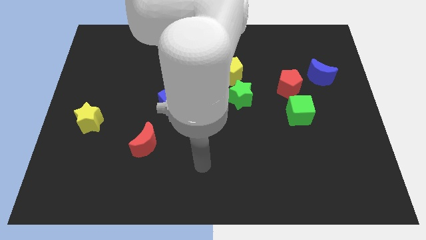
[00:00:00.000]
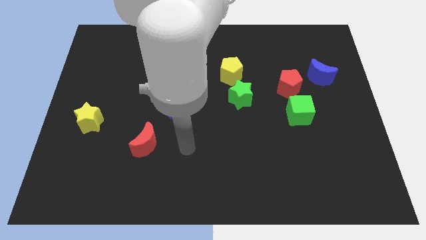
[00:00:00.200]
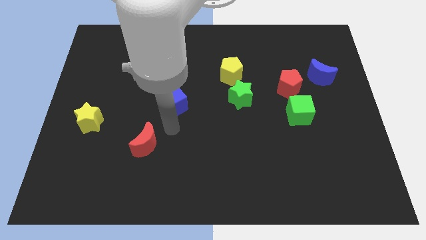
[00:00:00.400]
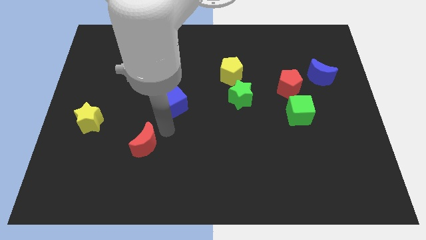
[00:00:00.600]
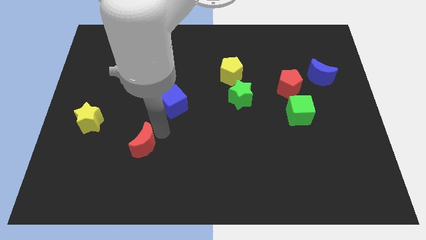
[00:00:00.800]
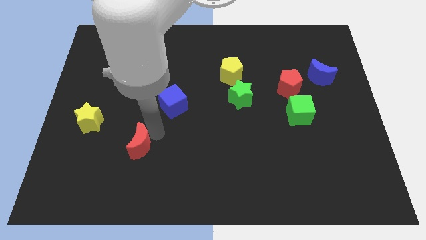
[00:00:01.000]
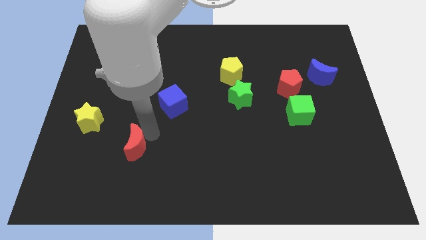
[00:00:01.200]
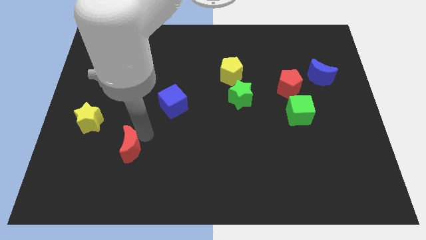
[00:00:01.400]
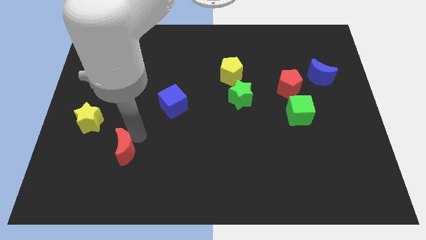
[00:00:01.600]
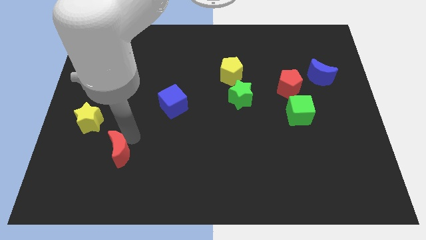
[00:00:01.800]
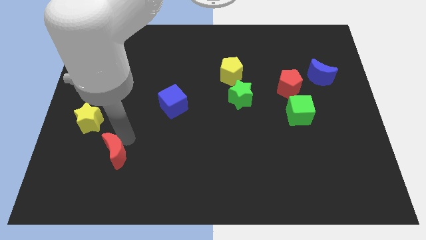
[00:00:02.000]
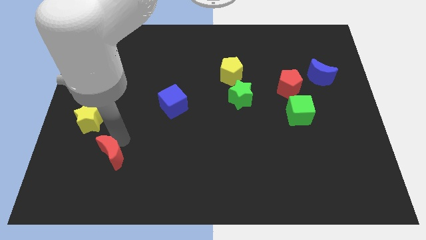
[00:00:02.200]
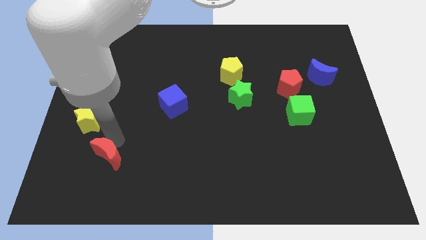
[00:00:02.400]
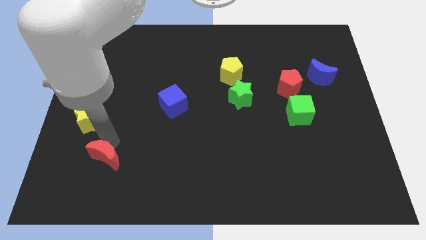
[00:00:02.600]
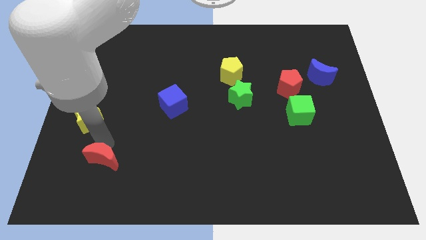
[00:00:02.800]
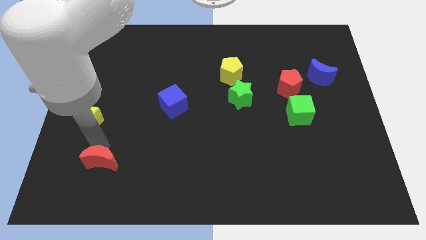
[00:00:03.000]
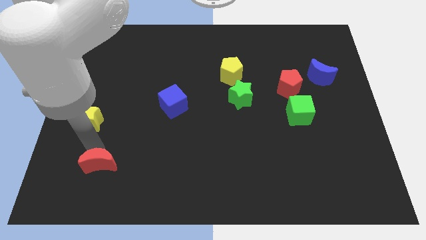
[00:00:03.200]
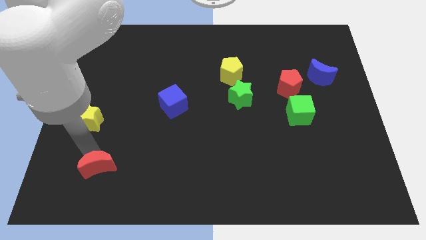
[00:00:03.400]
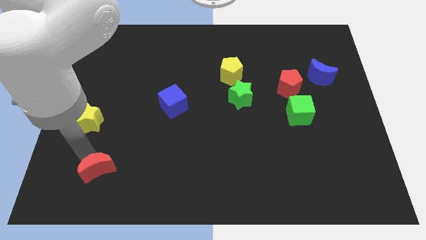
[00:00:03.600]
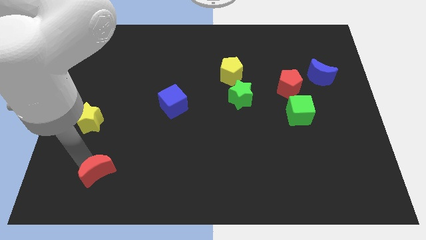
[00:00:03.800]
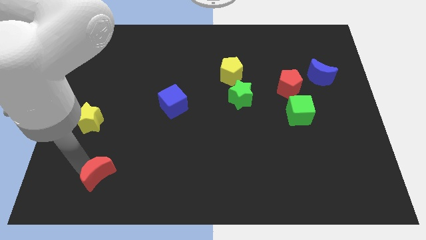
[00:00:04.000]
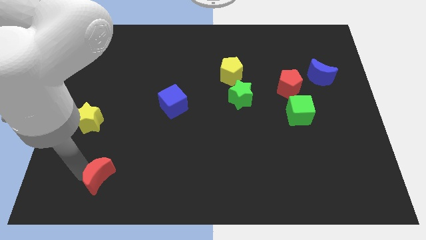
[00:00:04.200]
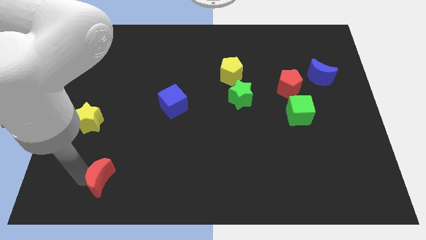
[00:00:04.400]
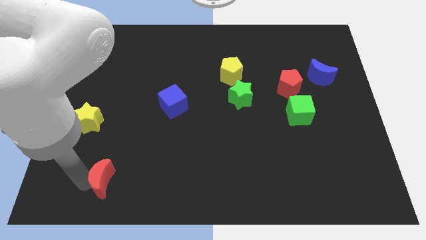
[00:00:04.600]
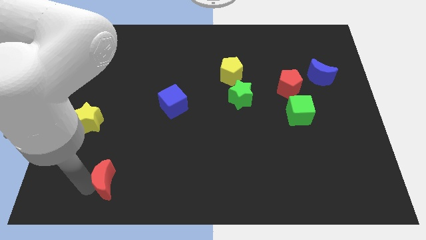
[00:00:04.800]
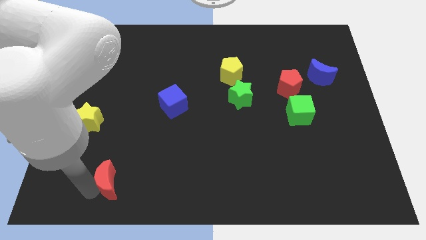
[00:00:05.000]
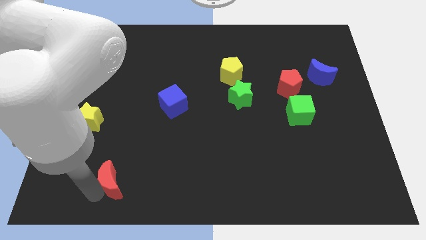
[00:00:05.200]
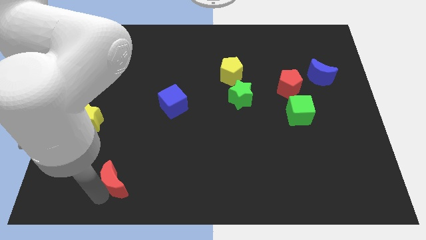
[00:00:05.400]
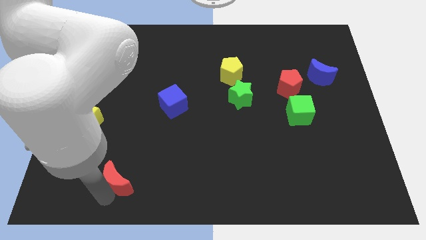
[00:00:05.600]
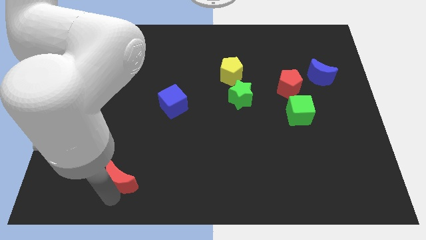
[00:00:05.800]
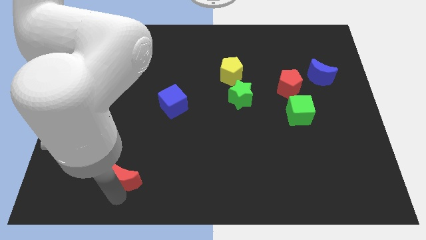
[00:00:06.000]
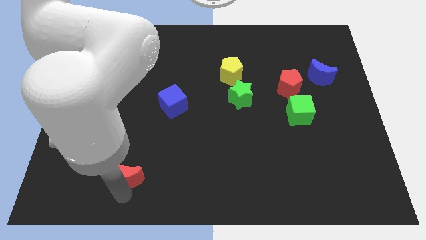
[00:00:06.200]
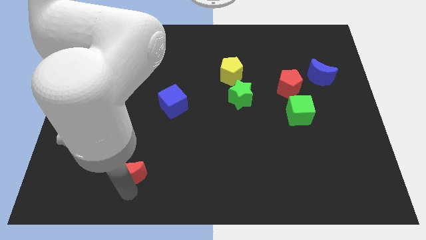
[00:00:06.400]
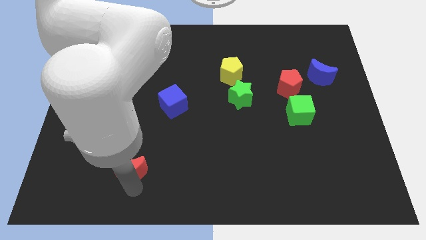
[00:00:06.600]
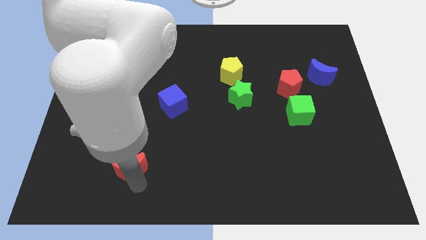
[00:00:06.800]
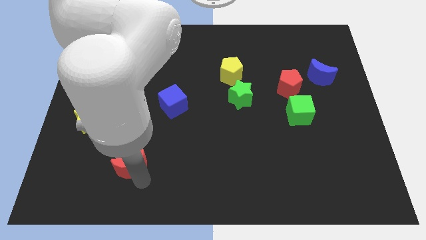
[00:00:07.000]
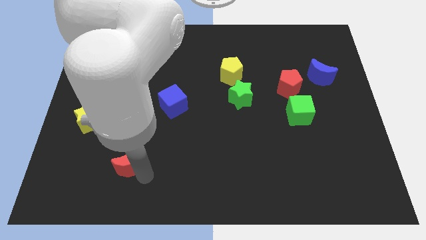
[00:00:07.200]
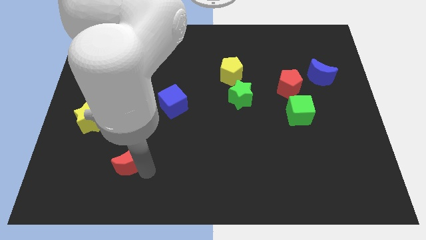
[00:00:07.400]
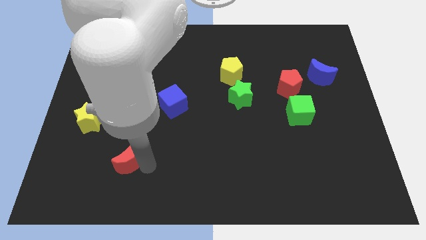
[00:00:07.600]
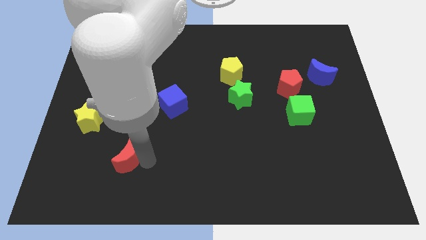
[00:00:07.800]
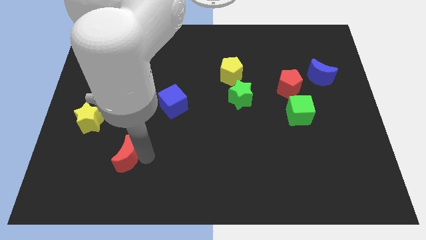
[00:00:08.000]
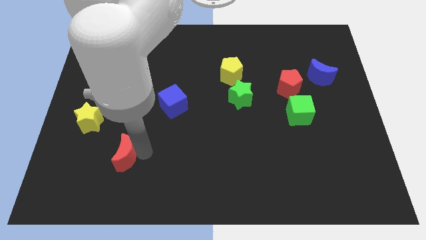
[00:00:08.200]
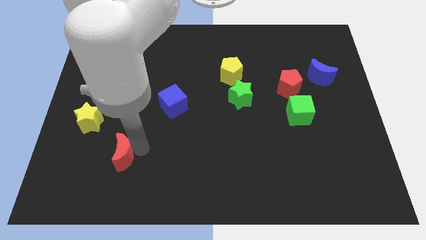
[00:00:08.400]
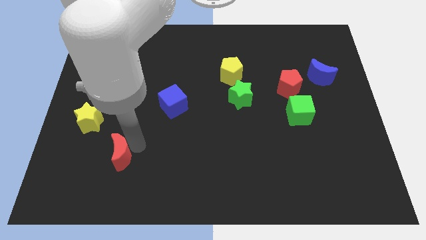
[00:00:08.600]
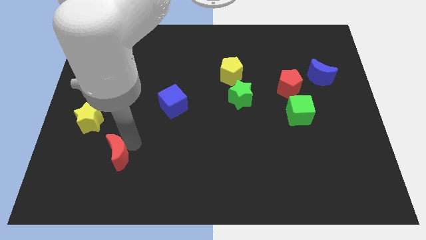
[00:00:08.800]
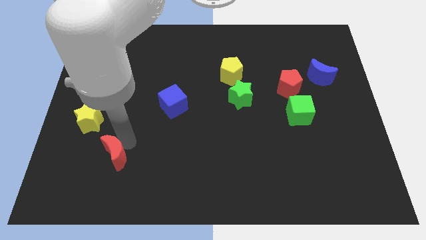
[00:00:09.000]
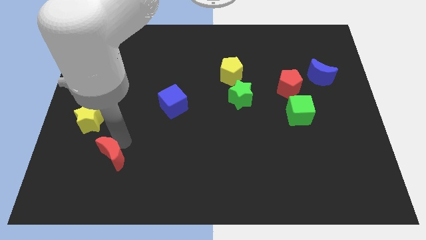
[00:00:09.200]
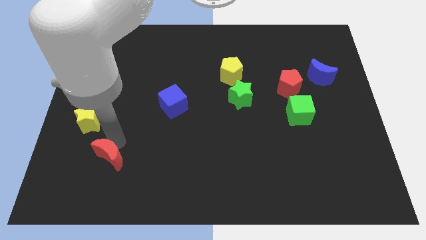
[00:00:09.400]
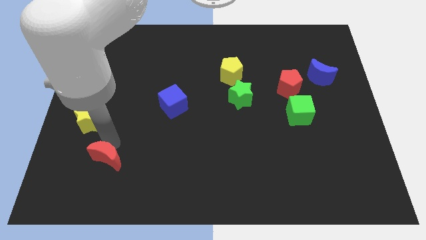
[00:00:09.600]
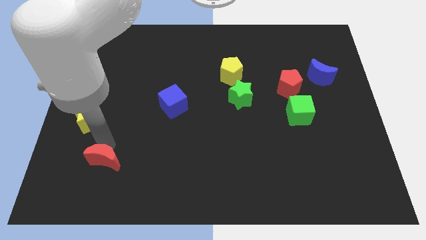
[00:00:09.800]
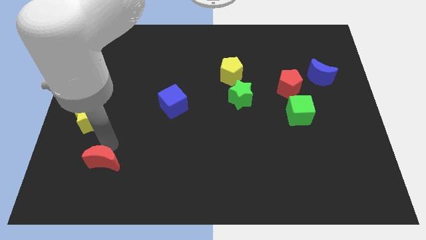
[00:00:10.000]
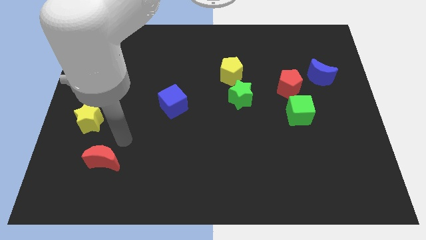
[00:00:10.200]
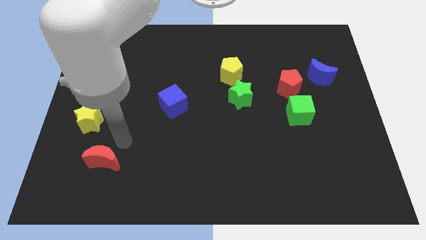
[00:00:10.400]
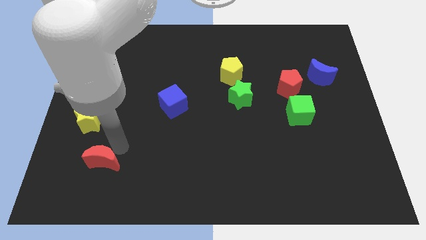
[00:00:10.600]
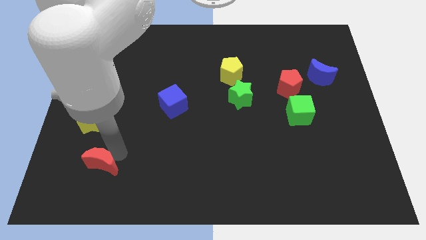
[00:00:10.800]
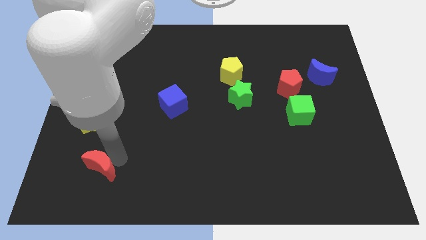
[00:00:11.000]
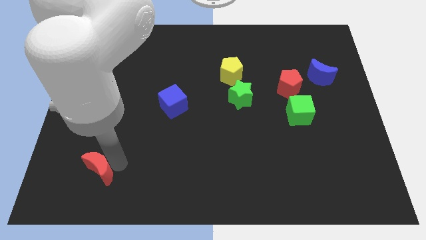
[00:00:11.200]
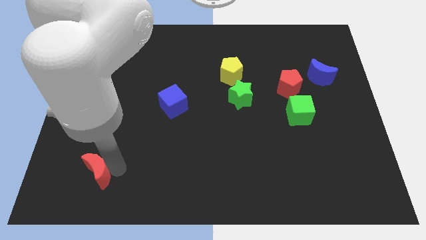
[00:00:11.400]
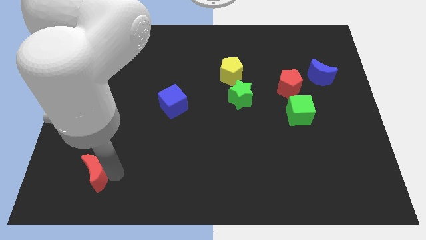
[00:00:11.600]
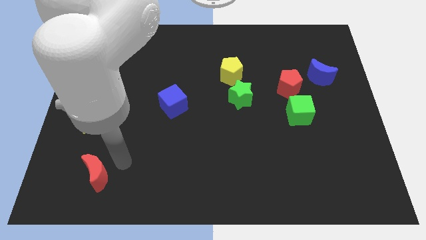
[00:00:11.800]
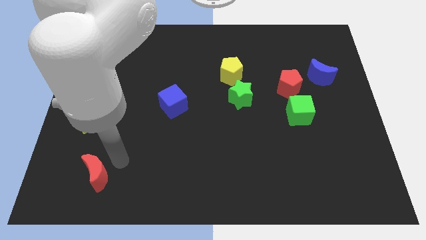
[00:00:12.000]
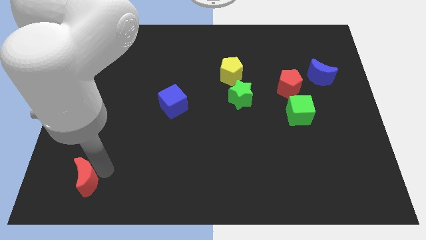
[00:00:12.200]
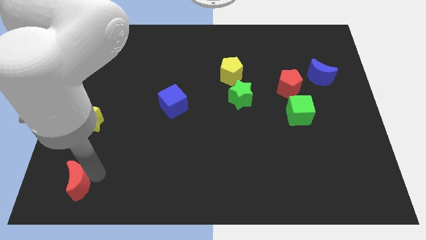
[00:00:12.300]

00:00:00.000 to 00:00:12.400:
move the red moon to the bottom left of the board
